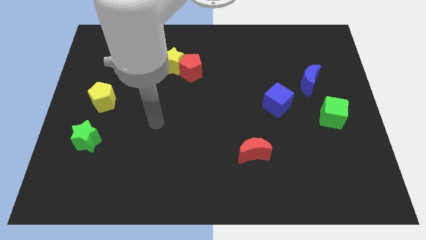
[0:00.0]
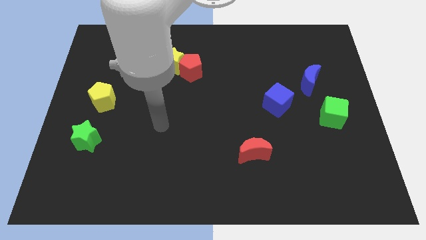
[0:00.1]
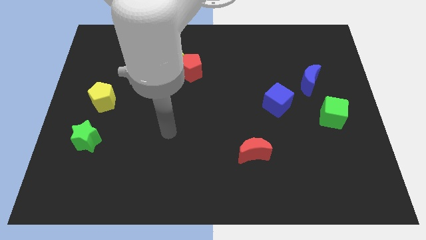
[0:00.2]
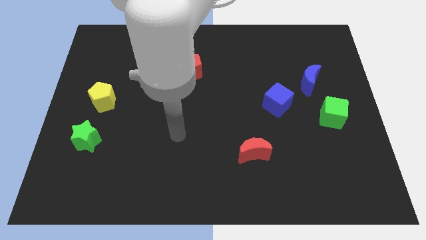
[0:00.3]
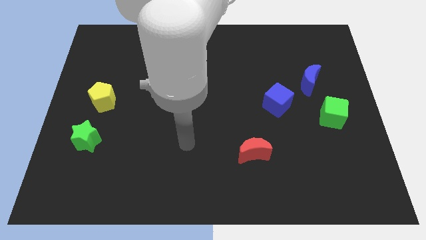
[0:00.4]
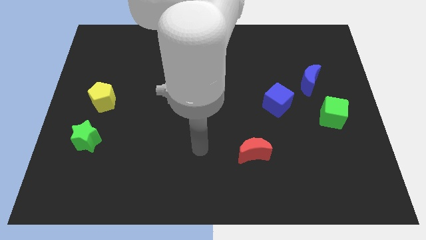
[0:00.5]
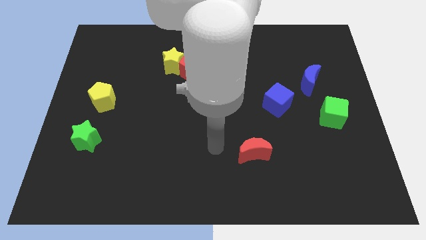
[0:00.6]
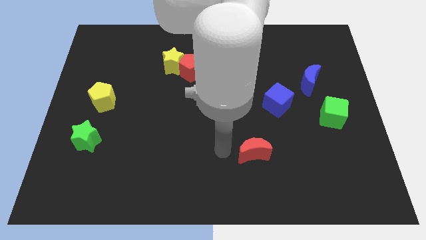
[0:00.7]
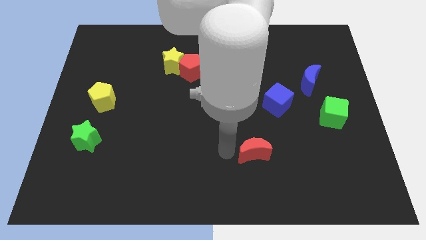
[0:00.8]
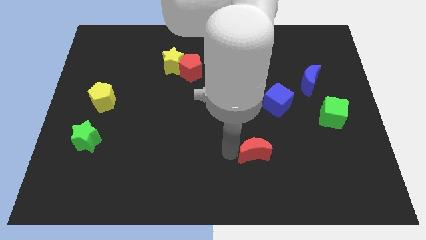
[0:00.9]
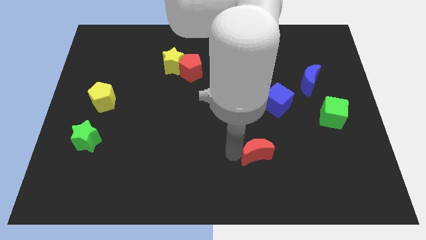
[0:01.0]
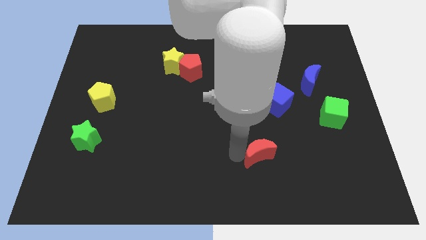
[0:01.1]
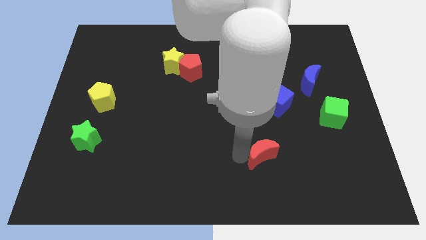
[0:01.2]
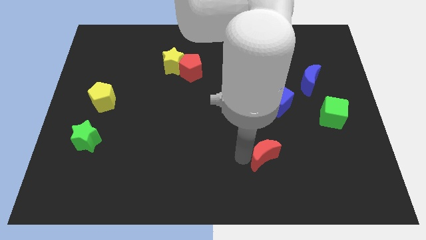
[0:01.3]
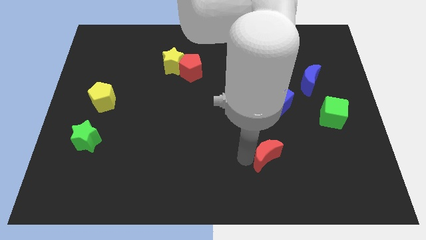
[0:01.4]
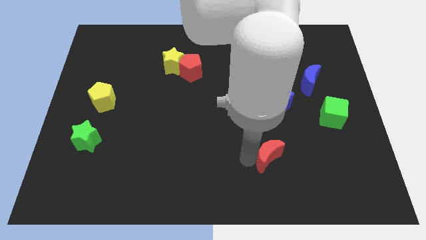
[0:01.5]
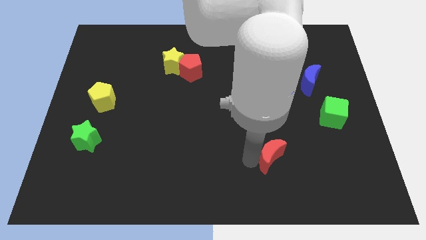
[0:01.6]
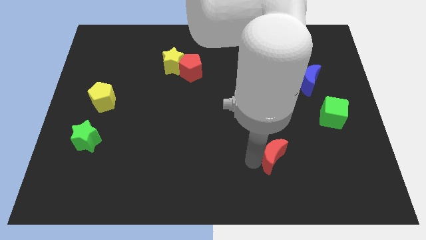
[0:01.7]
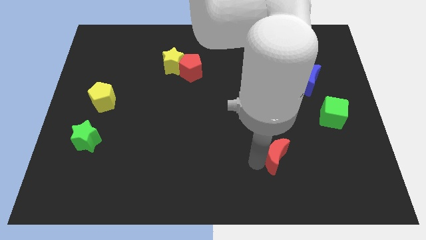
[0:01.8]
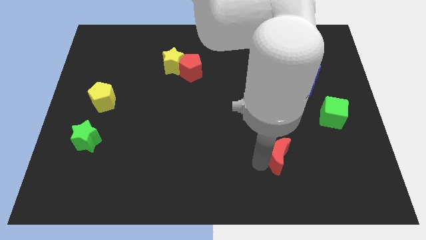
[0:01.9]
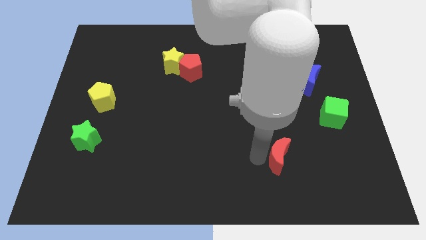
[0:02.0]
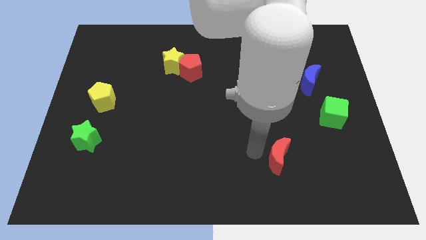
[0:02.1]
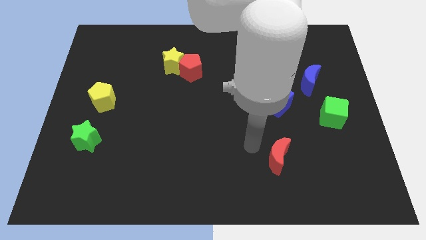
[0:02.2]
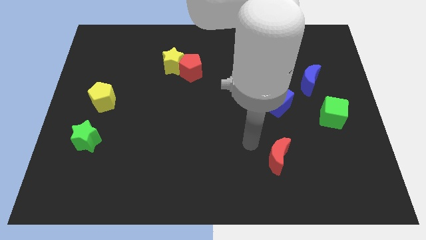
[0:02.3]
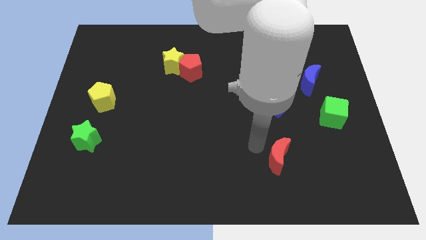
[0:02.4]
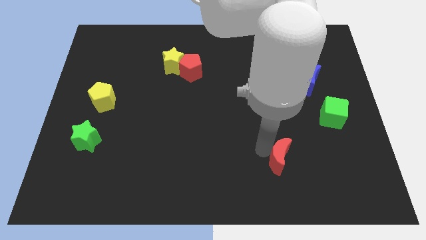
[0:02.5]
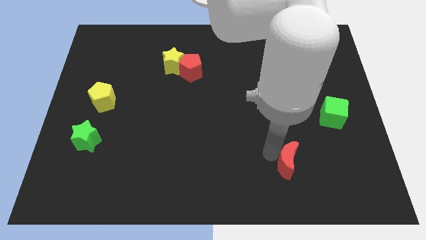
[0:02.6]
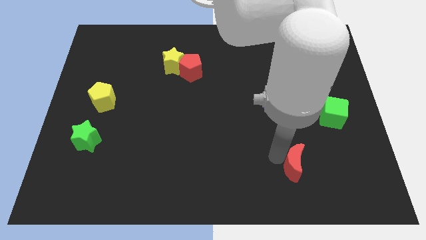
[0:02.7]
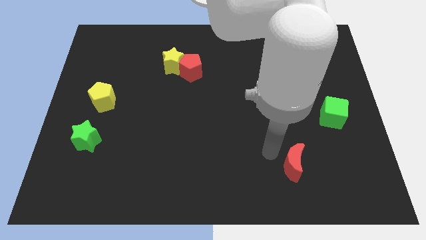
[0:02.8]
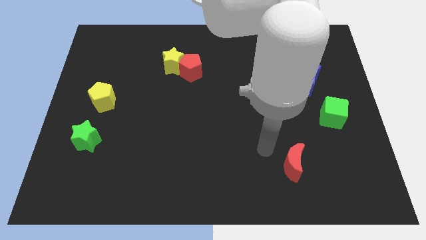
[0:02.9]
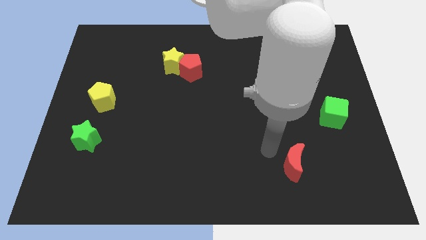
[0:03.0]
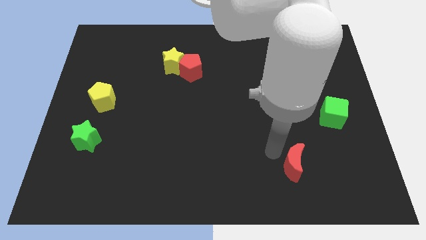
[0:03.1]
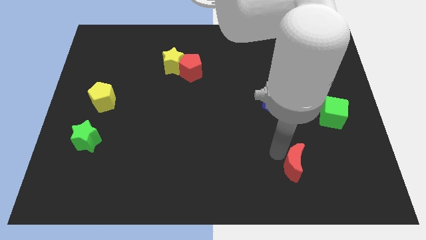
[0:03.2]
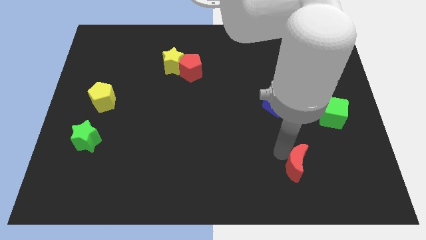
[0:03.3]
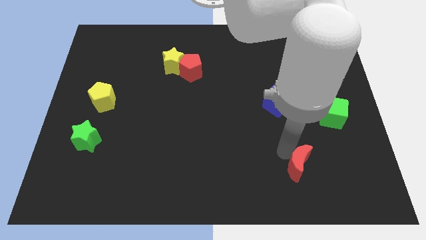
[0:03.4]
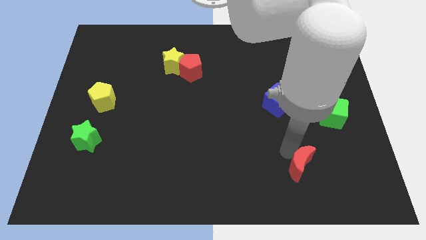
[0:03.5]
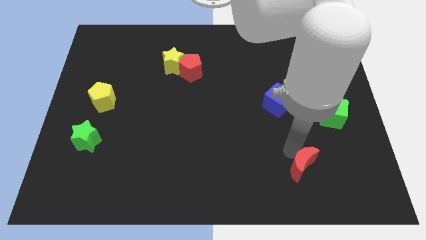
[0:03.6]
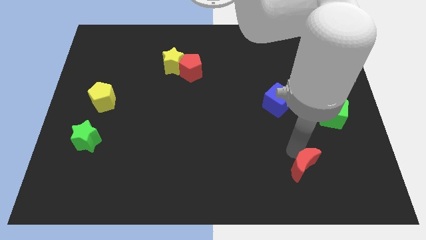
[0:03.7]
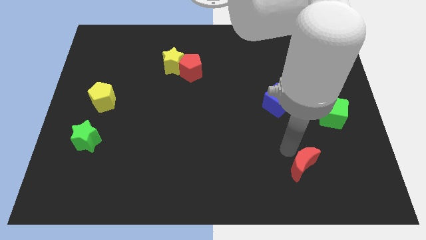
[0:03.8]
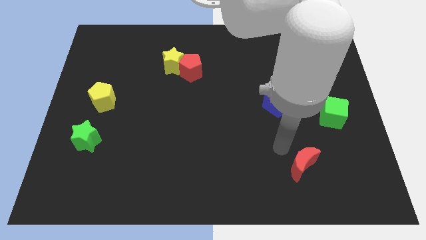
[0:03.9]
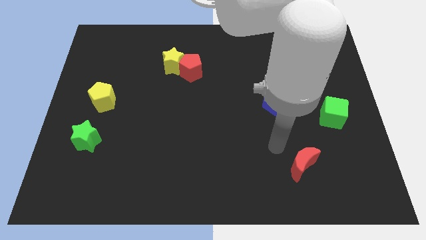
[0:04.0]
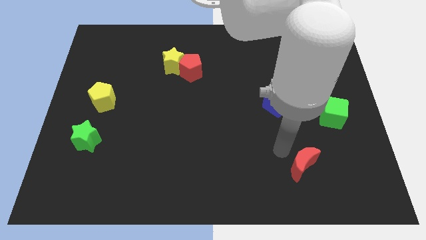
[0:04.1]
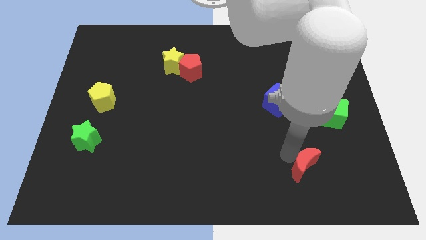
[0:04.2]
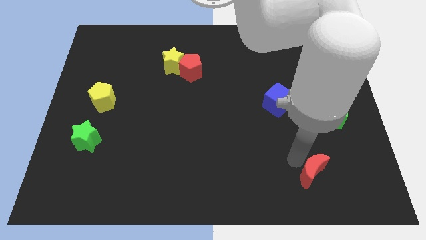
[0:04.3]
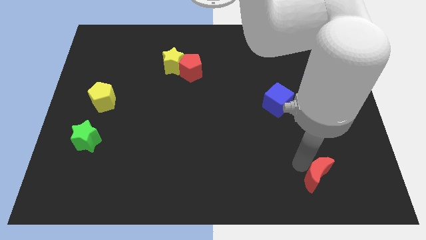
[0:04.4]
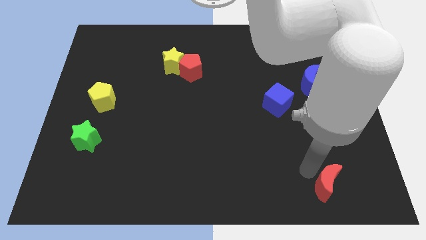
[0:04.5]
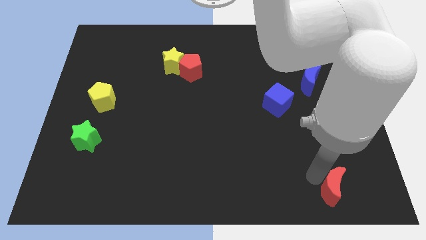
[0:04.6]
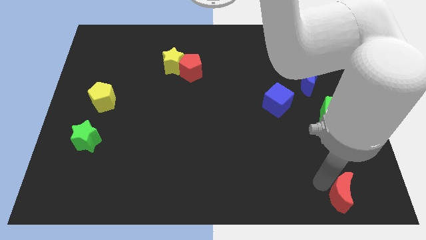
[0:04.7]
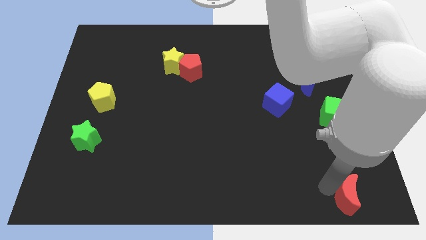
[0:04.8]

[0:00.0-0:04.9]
slide the red moon to the bottom right corner

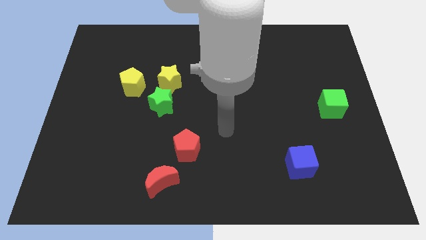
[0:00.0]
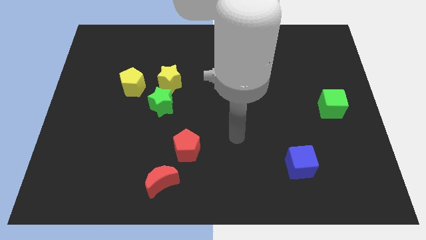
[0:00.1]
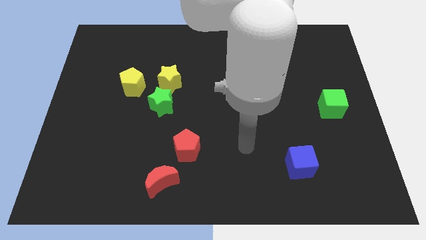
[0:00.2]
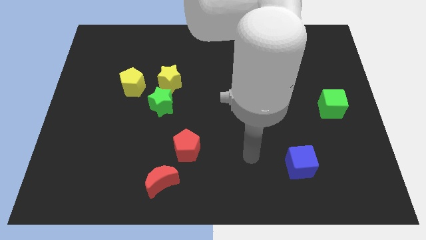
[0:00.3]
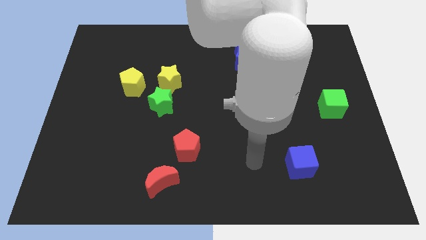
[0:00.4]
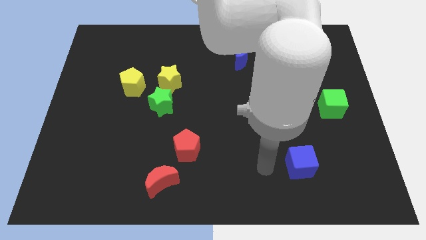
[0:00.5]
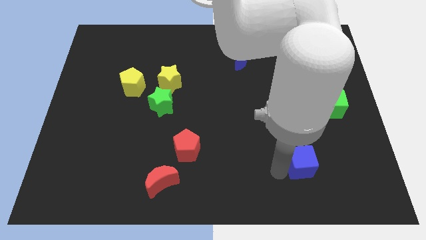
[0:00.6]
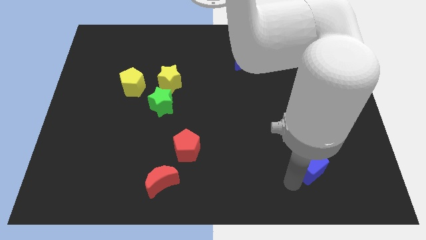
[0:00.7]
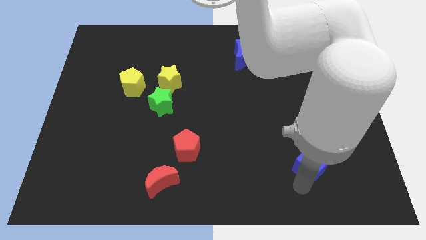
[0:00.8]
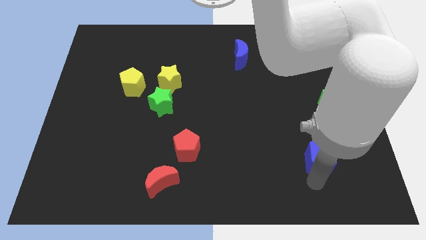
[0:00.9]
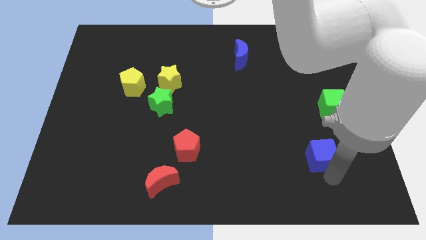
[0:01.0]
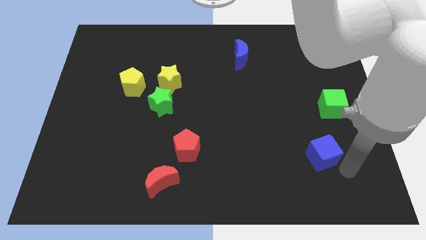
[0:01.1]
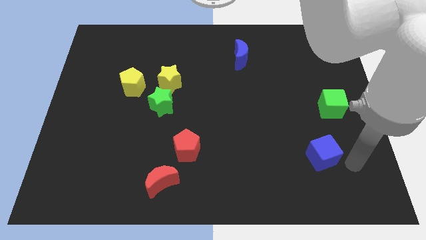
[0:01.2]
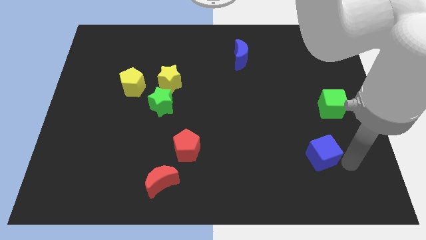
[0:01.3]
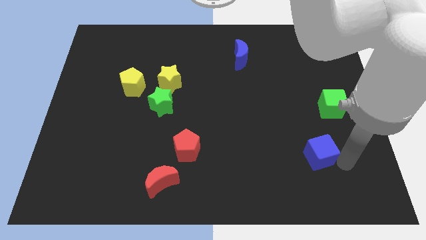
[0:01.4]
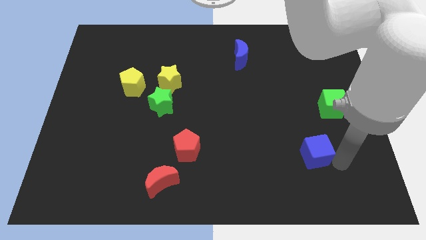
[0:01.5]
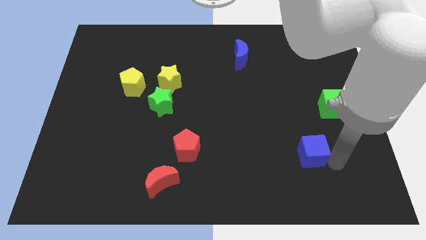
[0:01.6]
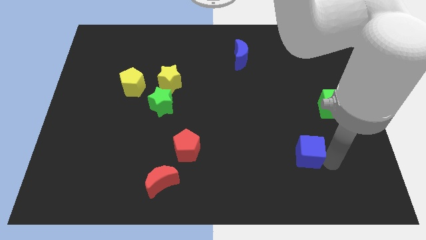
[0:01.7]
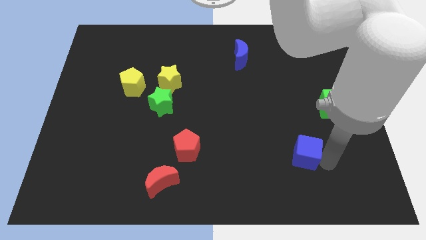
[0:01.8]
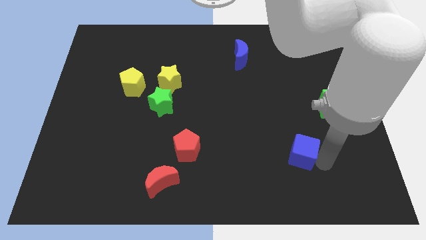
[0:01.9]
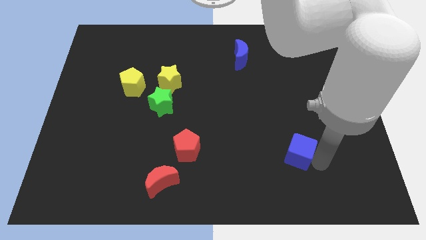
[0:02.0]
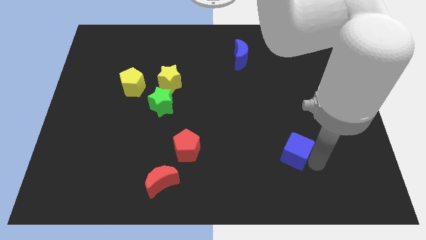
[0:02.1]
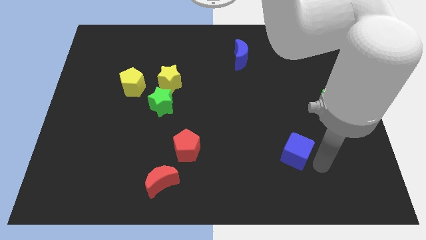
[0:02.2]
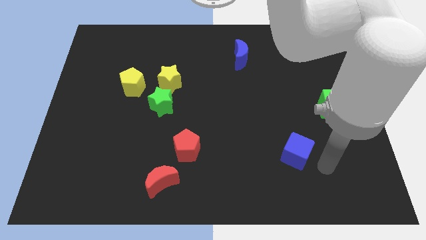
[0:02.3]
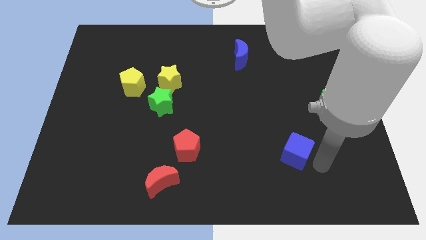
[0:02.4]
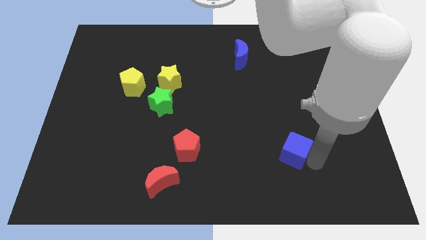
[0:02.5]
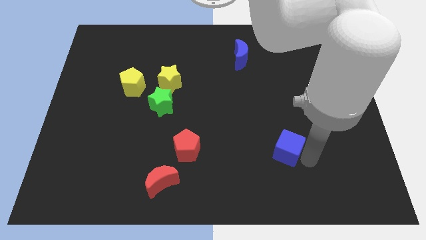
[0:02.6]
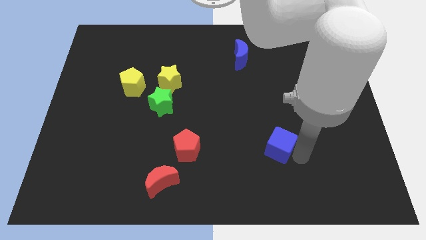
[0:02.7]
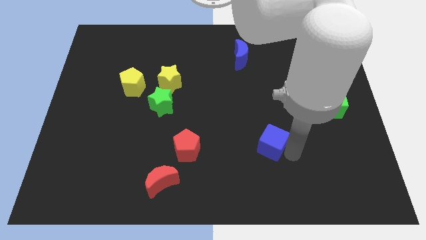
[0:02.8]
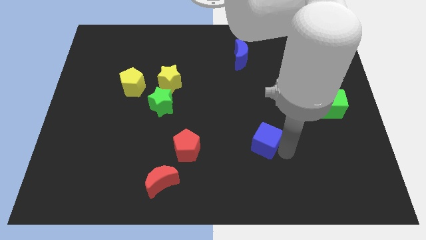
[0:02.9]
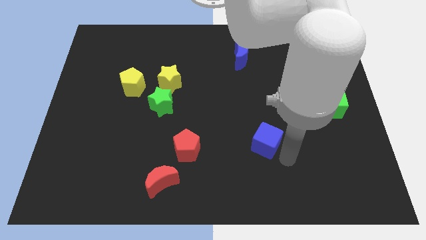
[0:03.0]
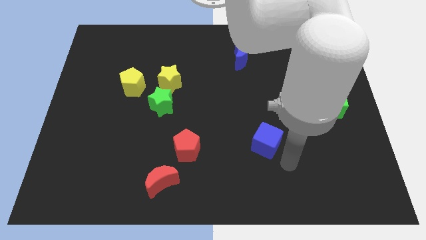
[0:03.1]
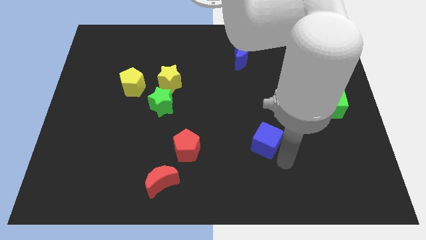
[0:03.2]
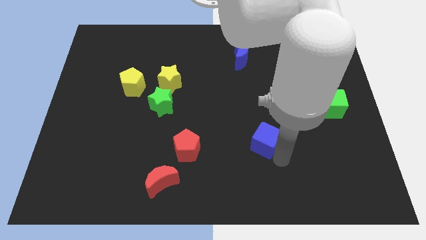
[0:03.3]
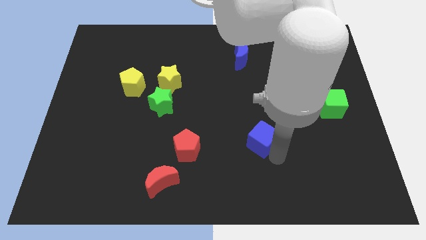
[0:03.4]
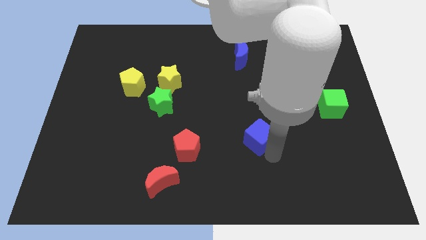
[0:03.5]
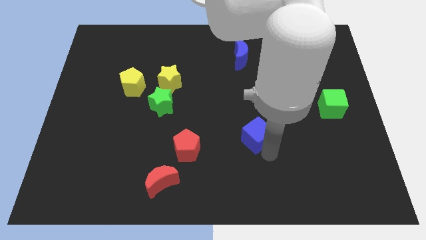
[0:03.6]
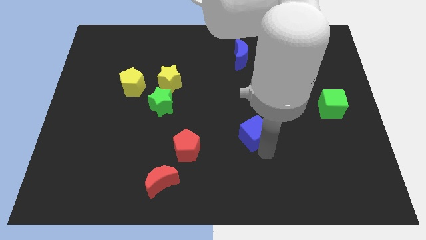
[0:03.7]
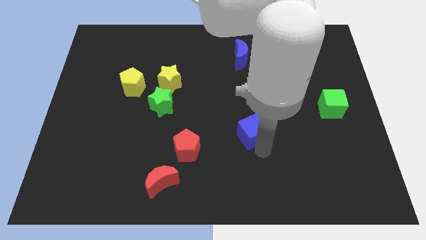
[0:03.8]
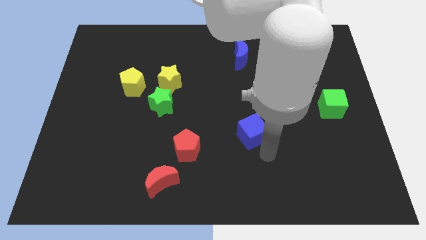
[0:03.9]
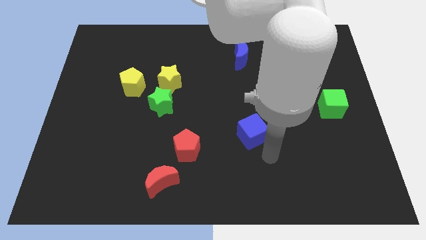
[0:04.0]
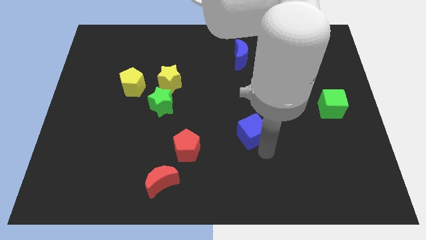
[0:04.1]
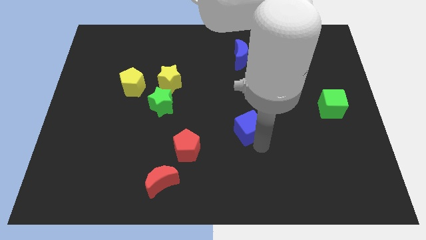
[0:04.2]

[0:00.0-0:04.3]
put the blue cube to the center
